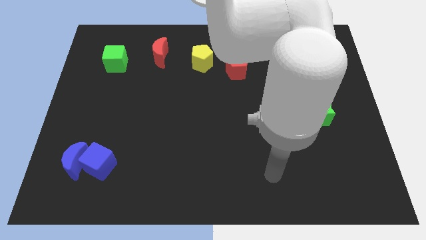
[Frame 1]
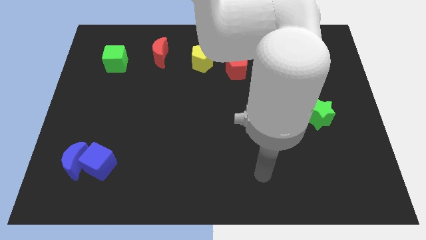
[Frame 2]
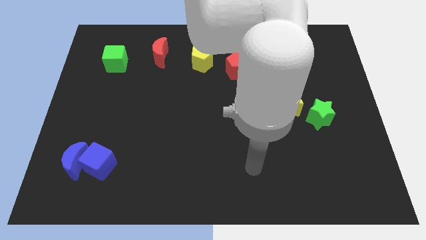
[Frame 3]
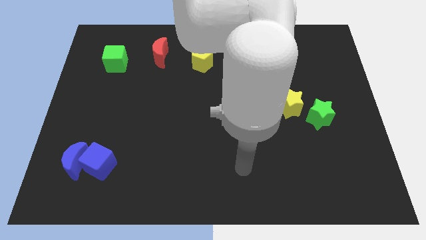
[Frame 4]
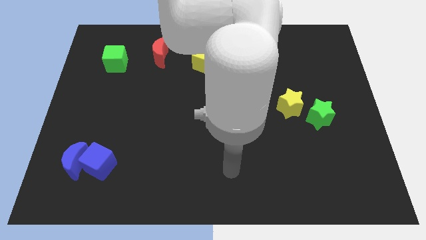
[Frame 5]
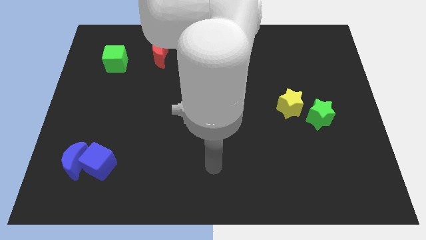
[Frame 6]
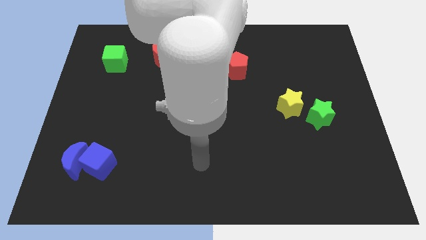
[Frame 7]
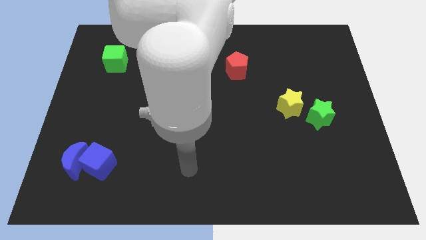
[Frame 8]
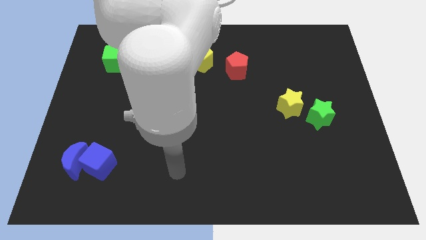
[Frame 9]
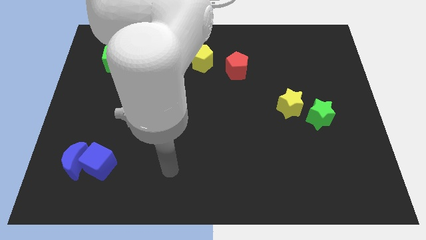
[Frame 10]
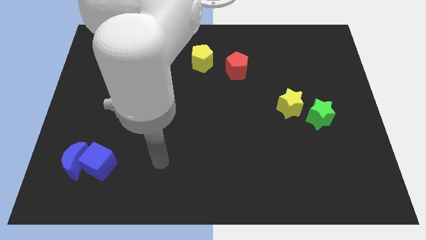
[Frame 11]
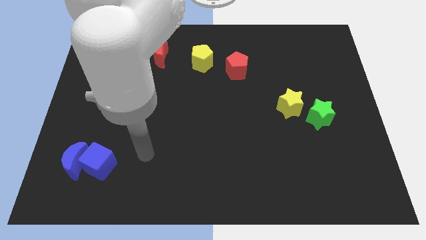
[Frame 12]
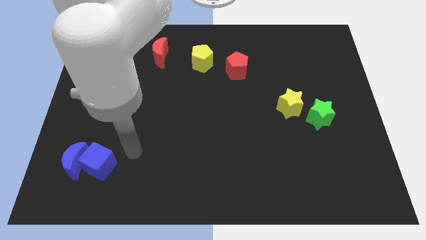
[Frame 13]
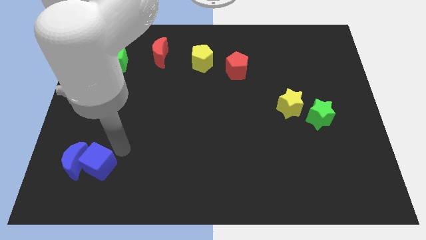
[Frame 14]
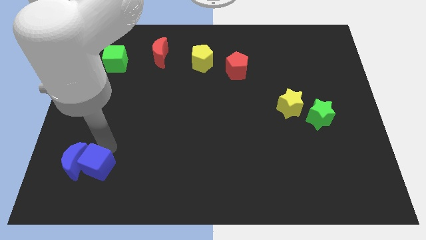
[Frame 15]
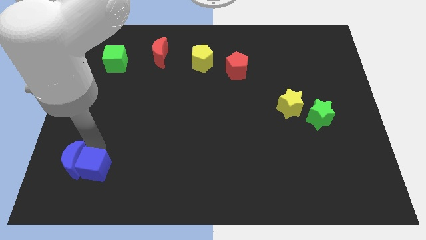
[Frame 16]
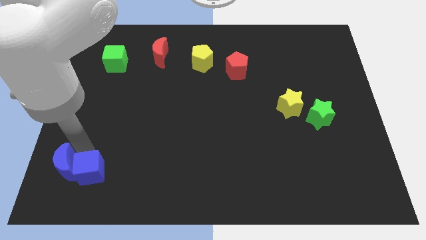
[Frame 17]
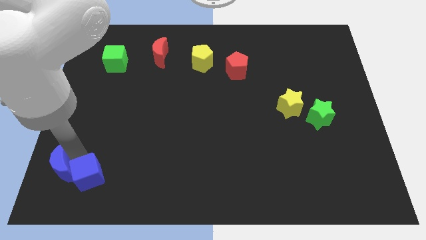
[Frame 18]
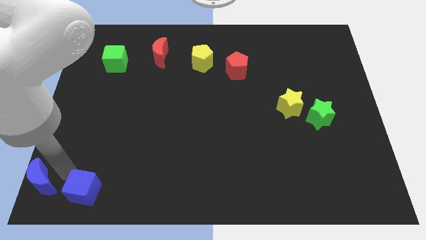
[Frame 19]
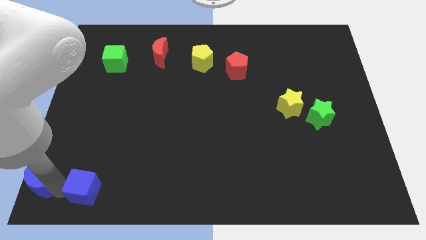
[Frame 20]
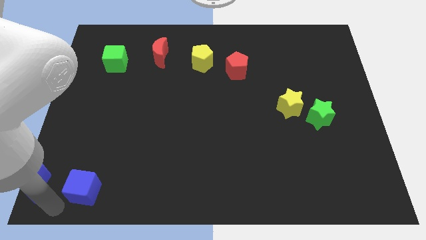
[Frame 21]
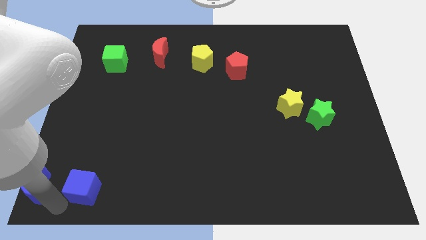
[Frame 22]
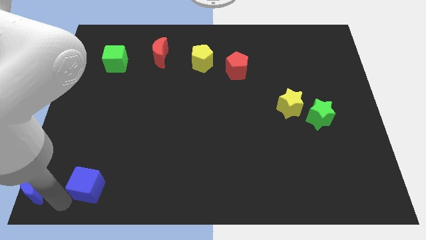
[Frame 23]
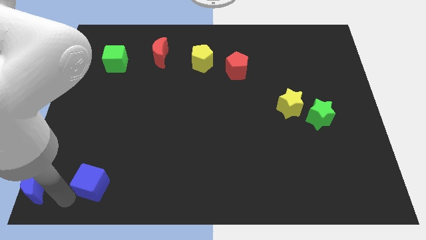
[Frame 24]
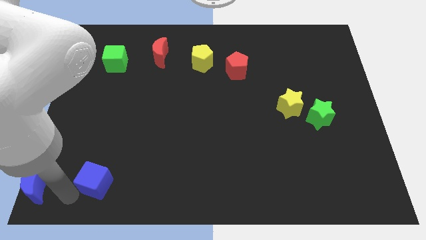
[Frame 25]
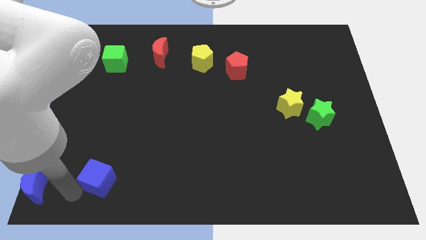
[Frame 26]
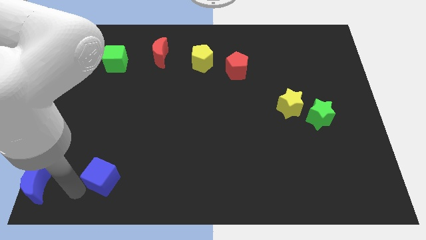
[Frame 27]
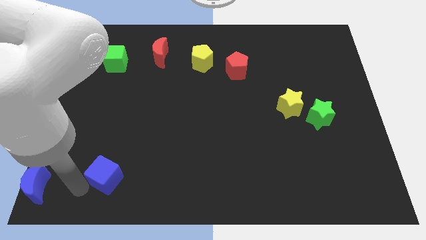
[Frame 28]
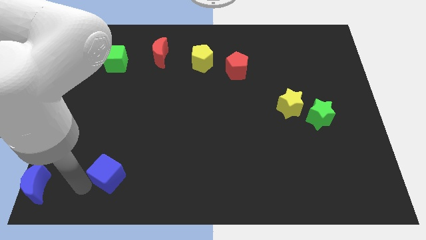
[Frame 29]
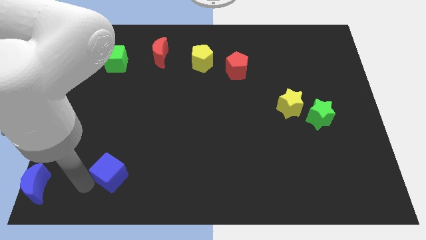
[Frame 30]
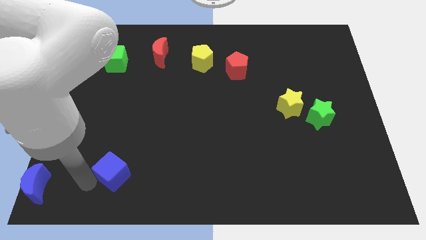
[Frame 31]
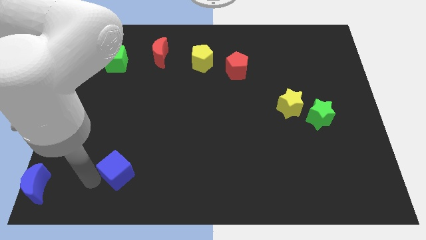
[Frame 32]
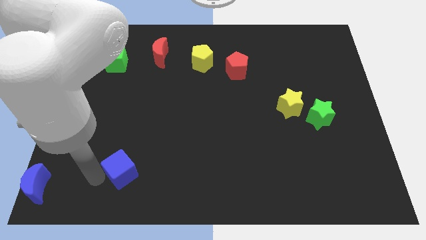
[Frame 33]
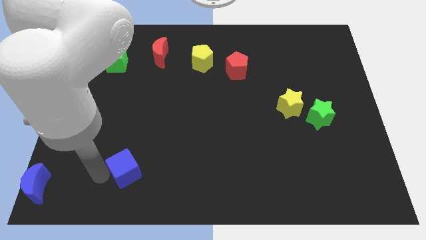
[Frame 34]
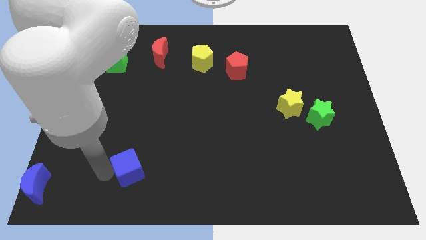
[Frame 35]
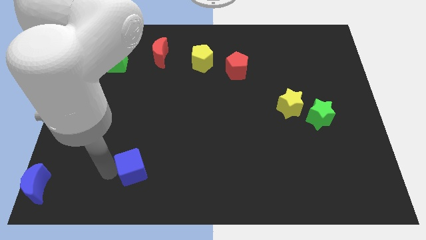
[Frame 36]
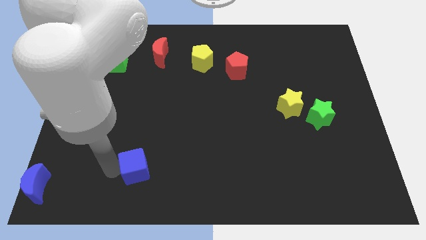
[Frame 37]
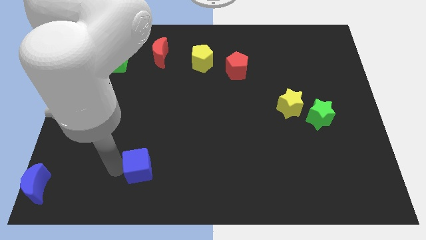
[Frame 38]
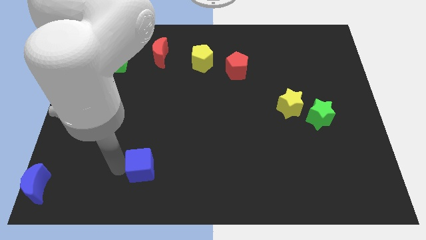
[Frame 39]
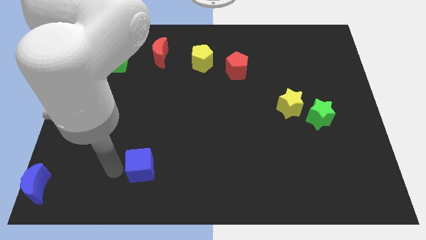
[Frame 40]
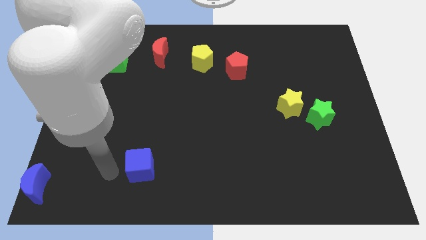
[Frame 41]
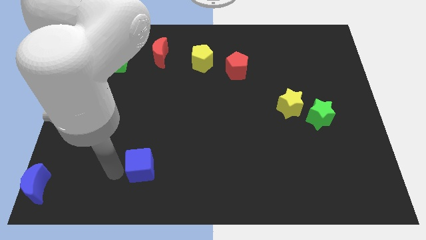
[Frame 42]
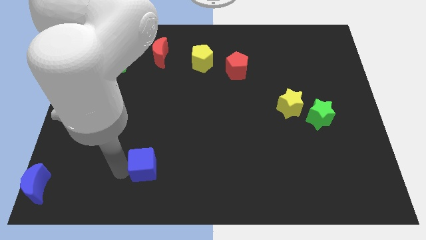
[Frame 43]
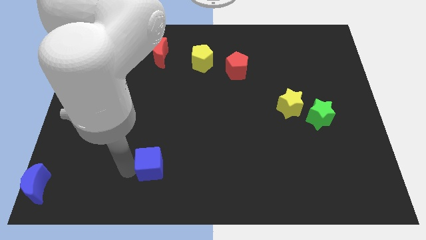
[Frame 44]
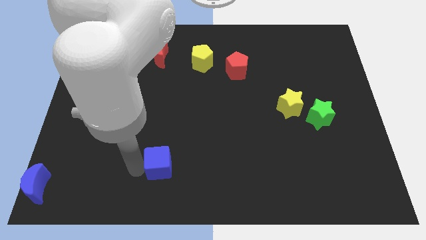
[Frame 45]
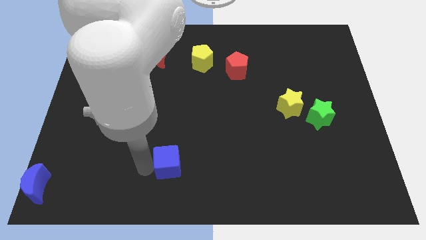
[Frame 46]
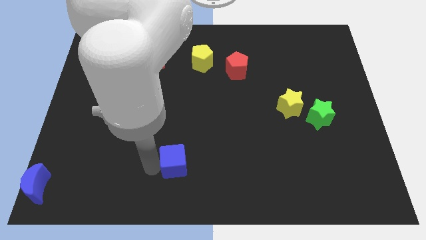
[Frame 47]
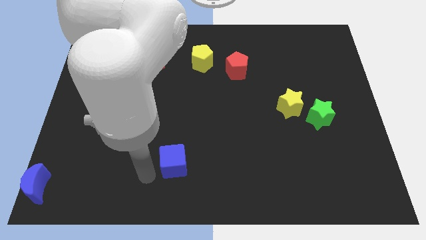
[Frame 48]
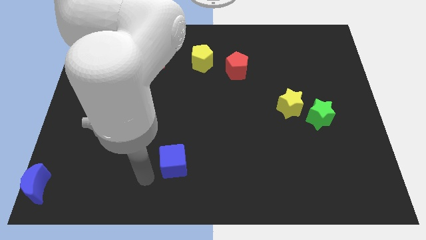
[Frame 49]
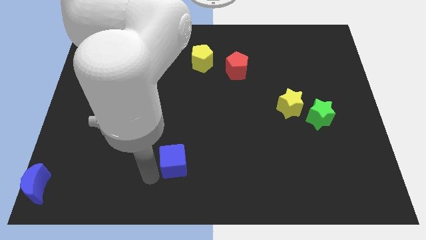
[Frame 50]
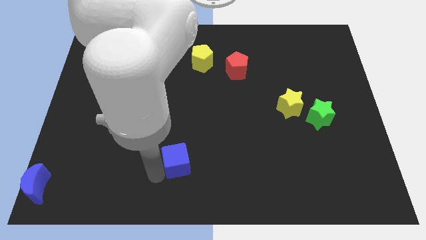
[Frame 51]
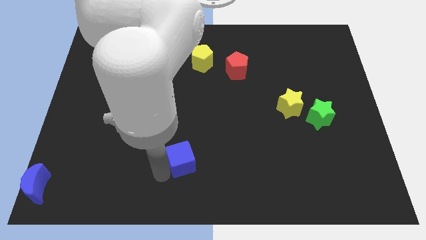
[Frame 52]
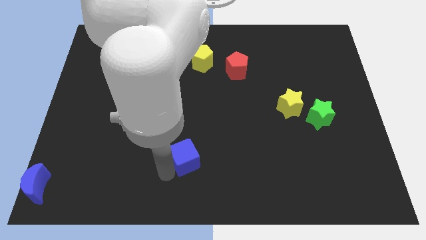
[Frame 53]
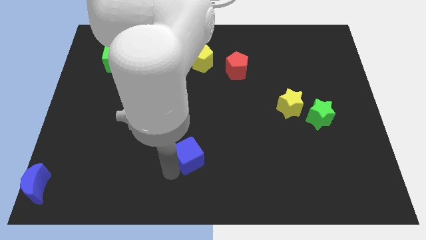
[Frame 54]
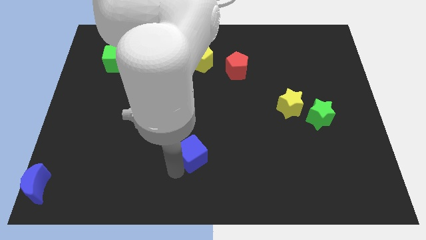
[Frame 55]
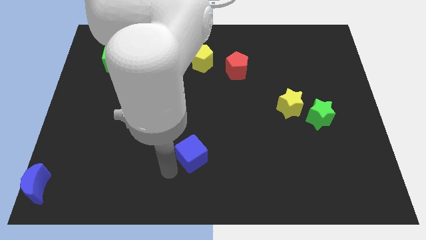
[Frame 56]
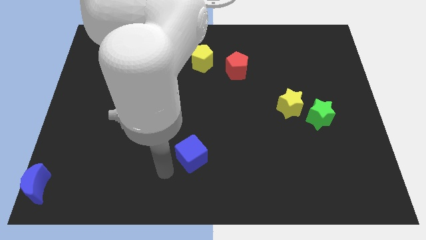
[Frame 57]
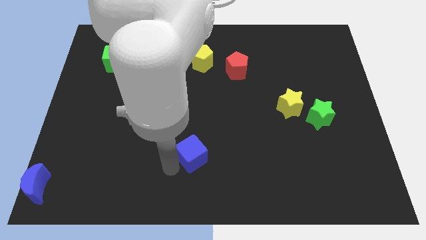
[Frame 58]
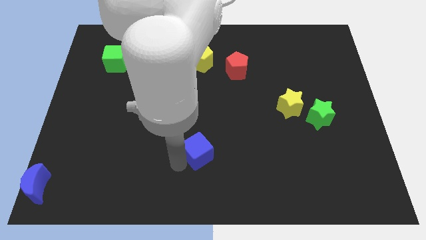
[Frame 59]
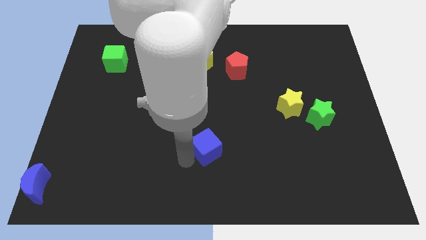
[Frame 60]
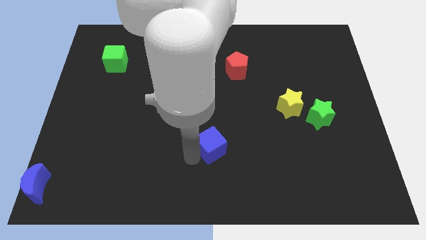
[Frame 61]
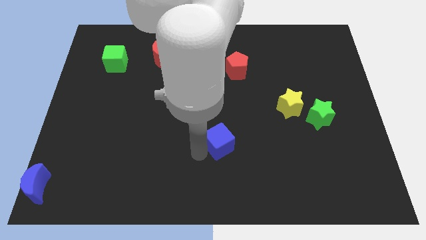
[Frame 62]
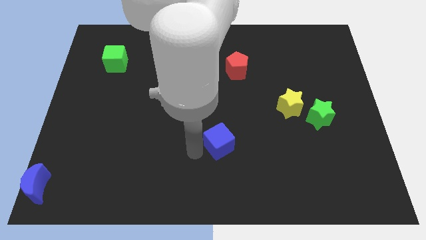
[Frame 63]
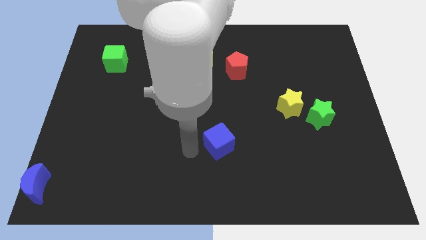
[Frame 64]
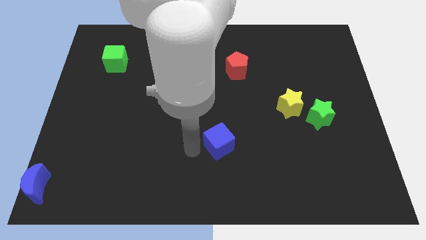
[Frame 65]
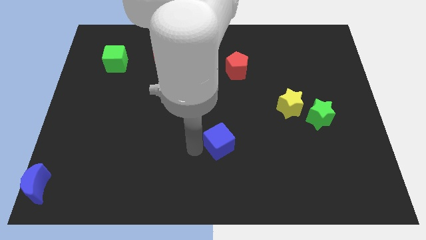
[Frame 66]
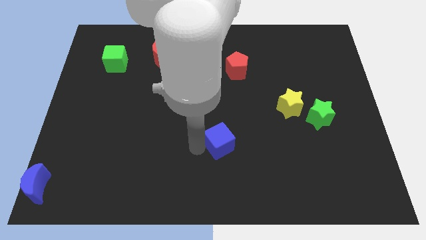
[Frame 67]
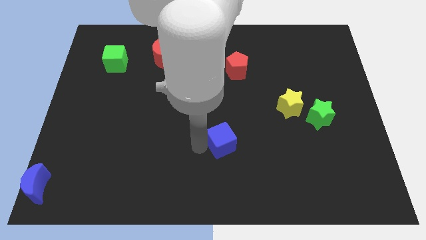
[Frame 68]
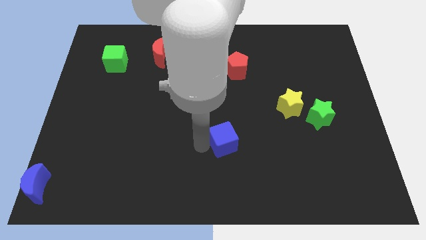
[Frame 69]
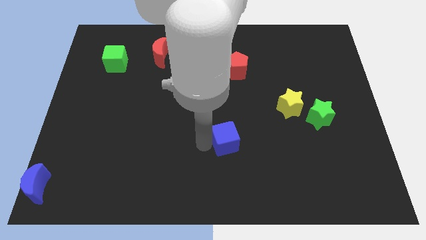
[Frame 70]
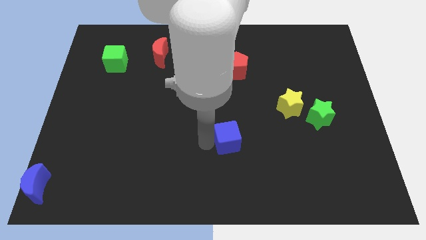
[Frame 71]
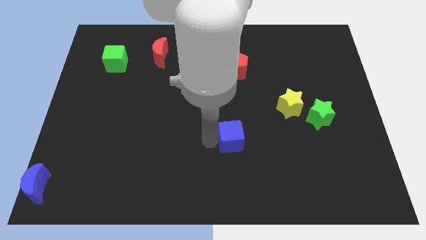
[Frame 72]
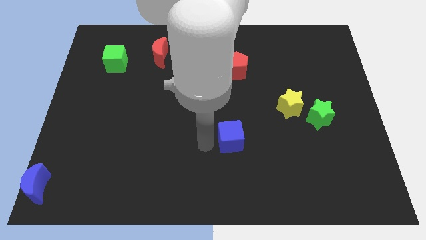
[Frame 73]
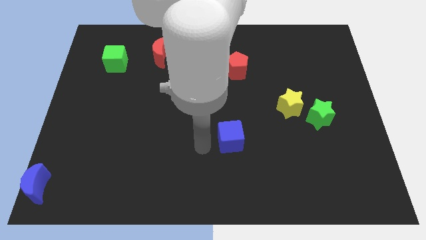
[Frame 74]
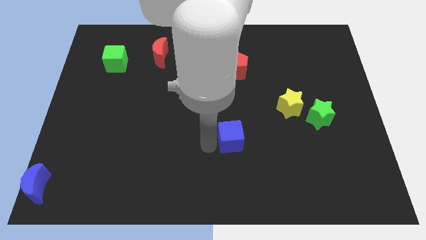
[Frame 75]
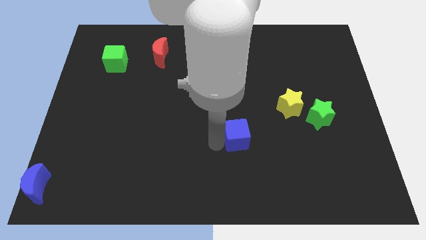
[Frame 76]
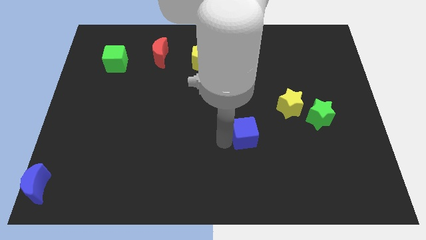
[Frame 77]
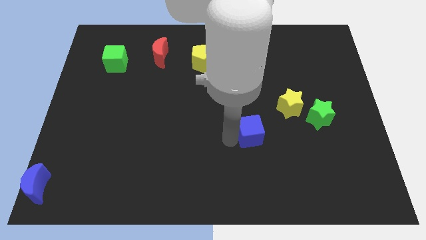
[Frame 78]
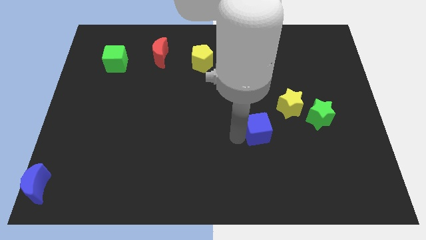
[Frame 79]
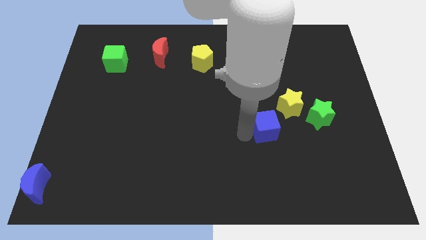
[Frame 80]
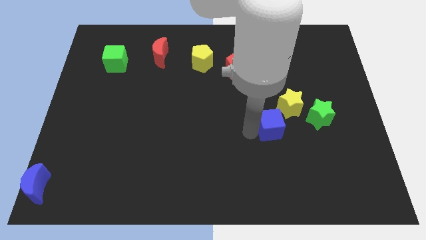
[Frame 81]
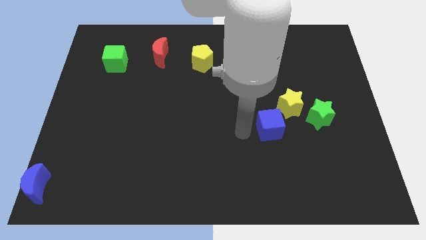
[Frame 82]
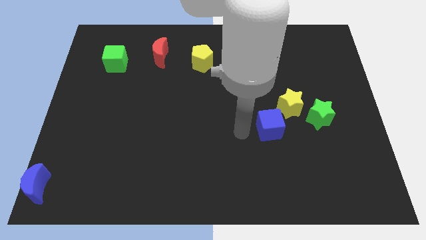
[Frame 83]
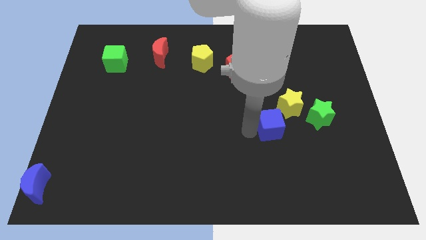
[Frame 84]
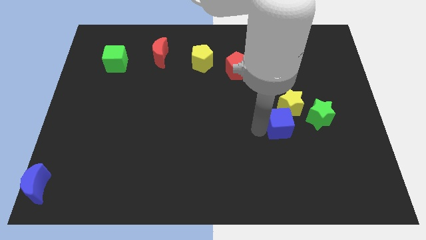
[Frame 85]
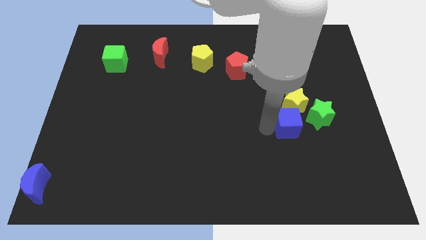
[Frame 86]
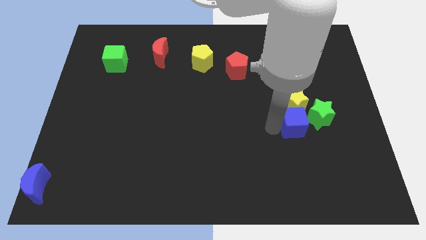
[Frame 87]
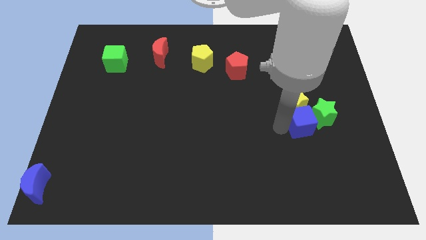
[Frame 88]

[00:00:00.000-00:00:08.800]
put the blue cube towards the green star
